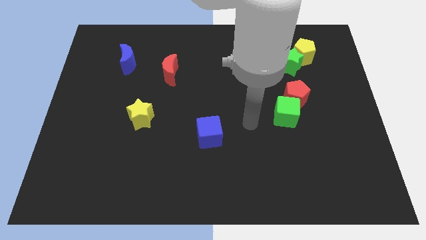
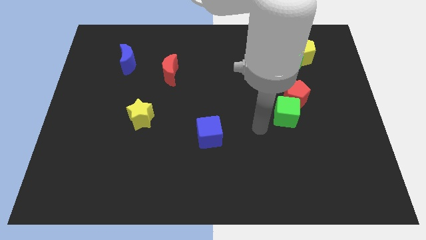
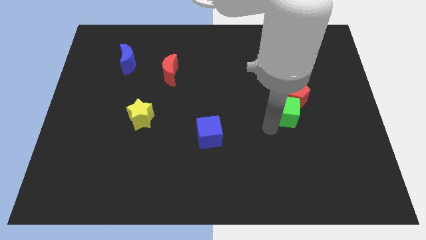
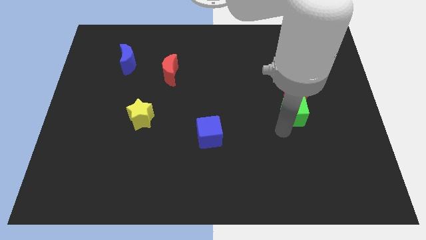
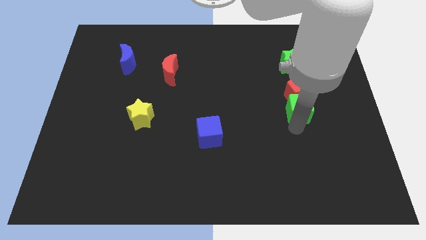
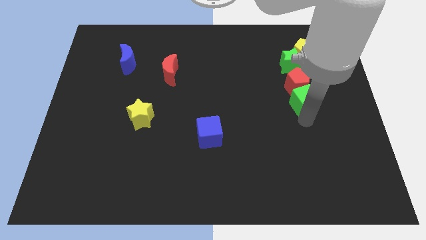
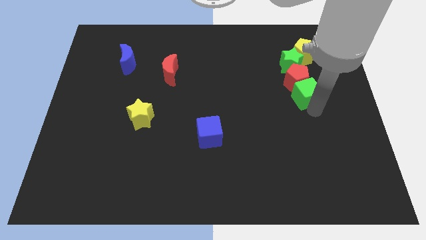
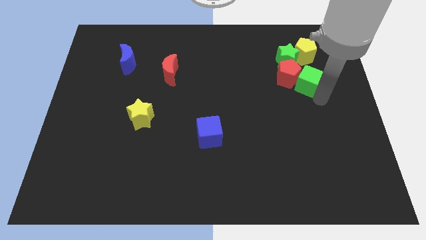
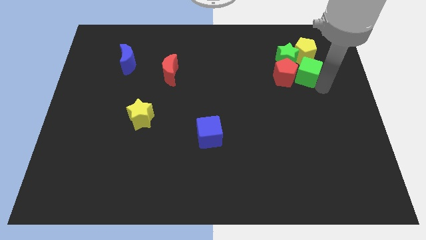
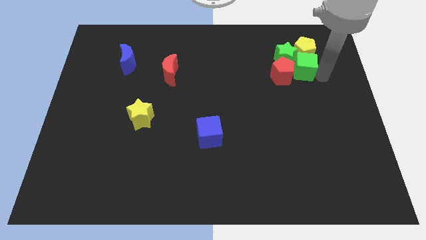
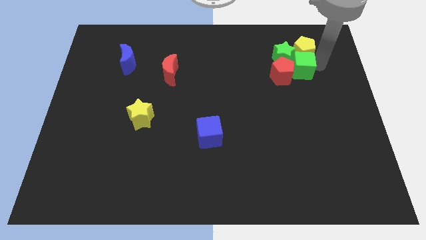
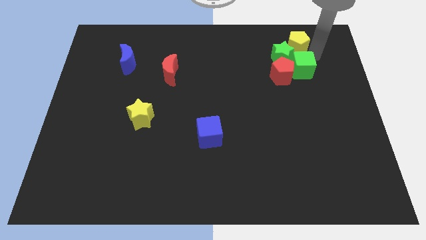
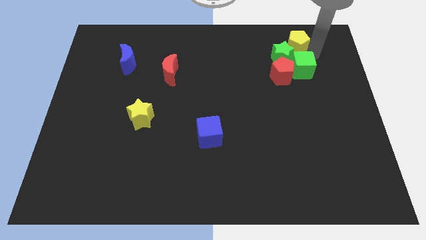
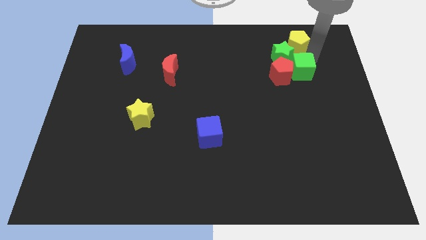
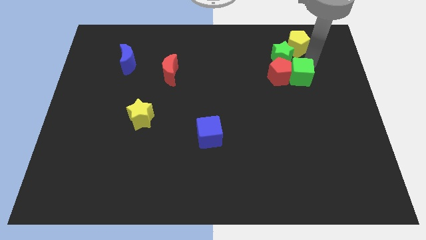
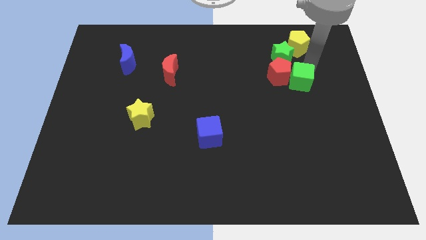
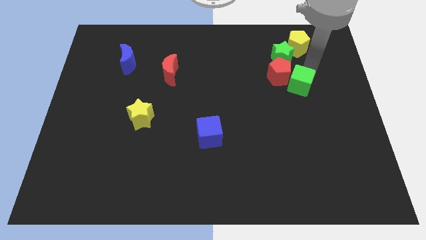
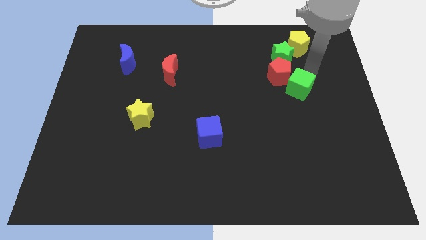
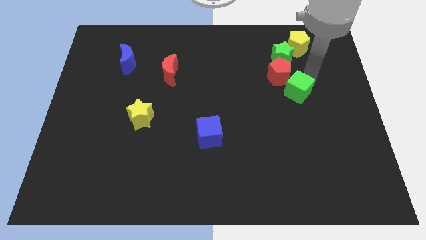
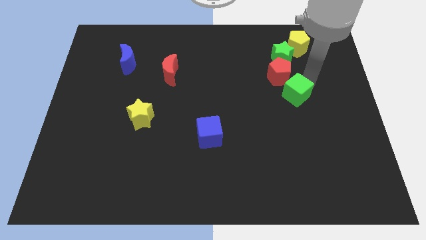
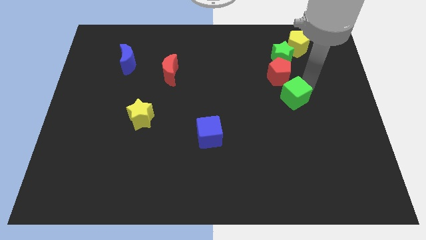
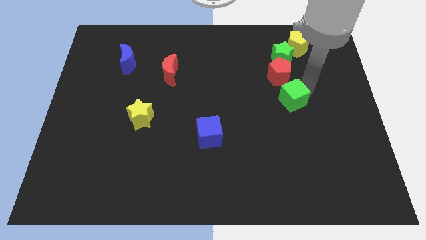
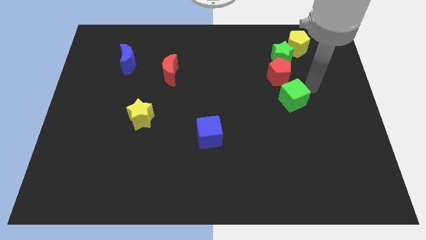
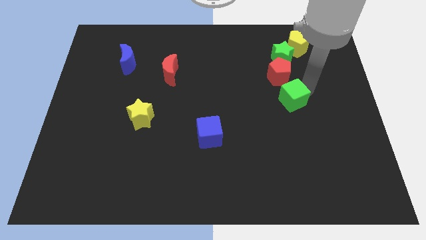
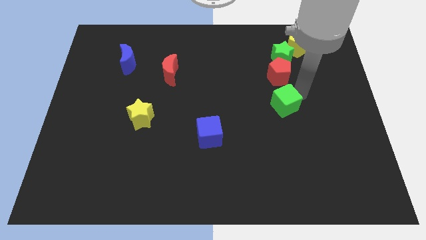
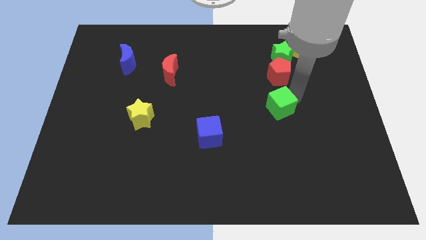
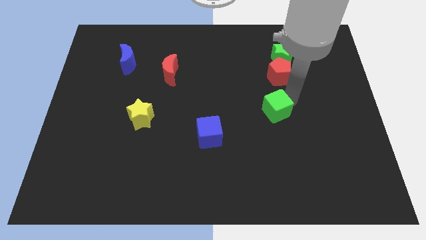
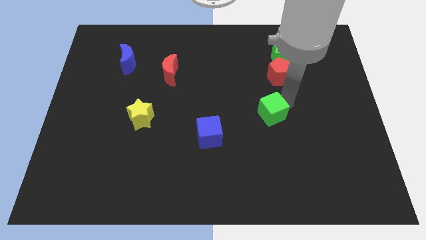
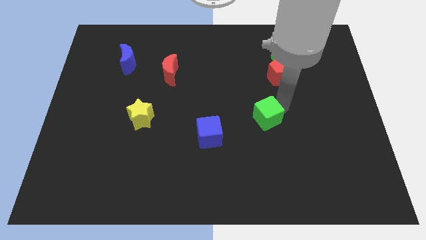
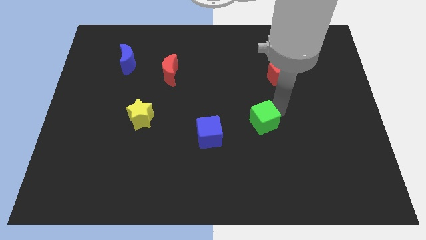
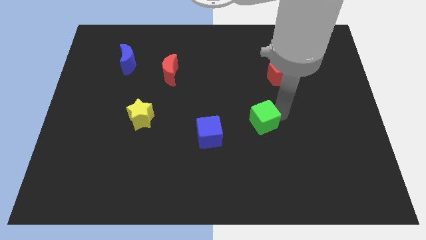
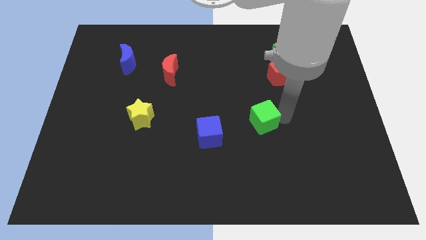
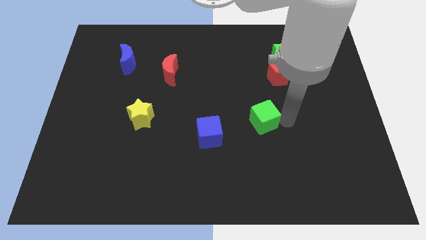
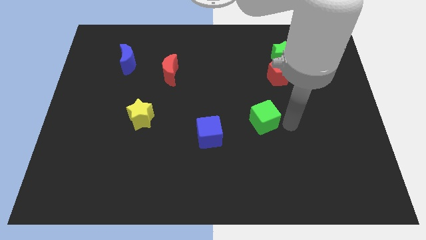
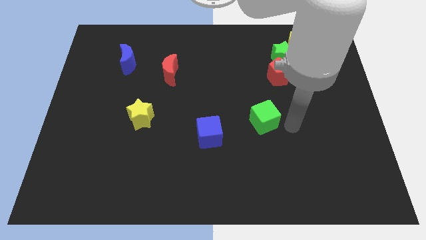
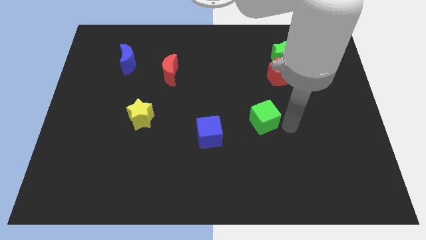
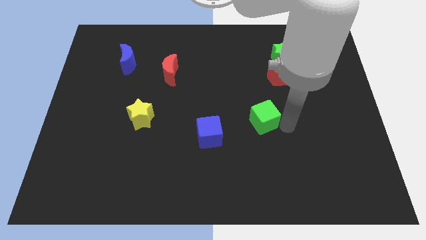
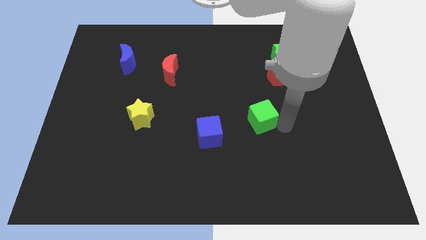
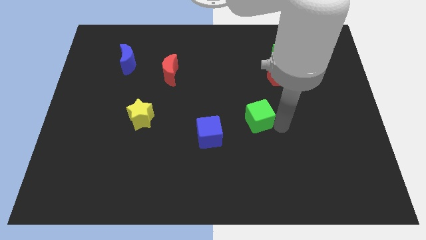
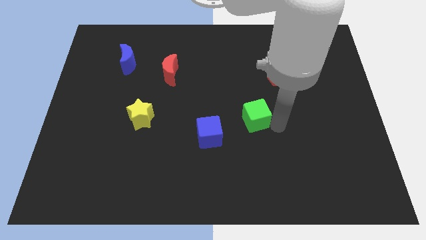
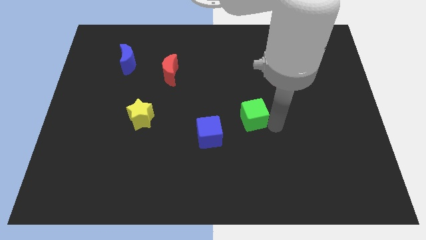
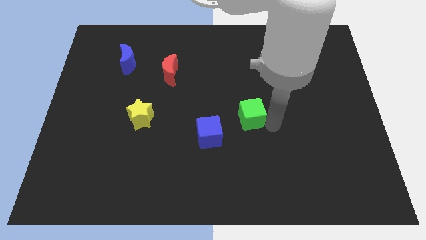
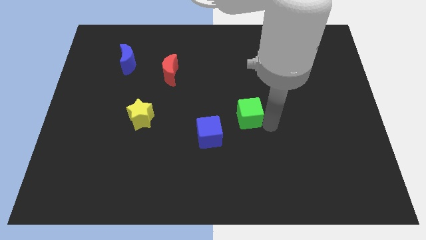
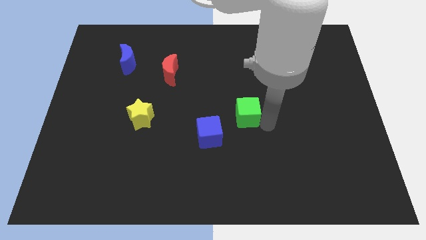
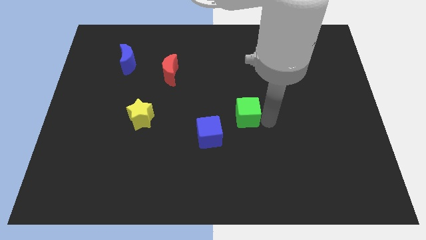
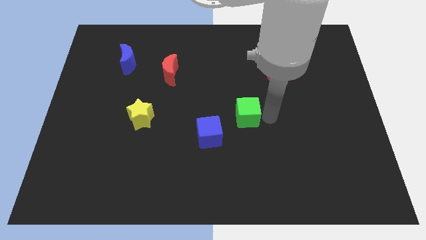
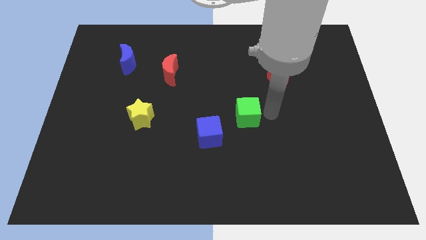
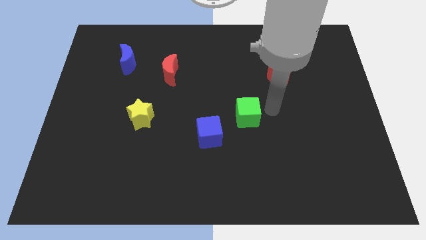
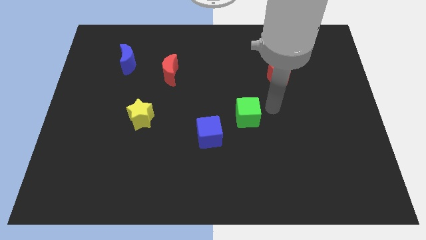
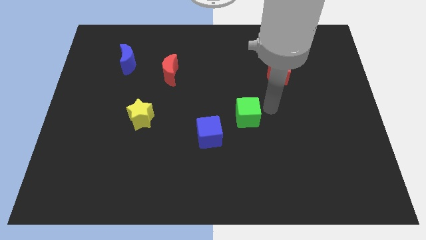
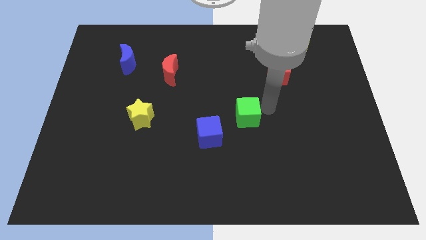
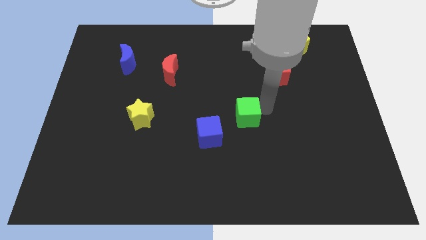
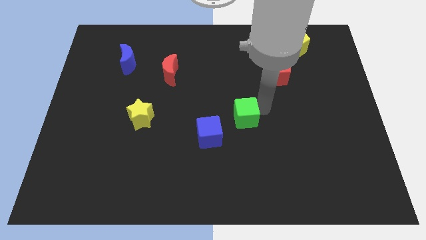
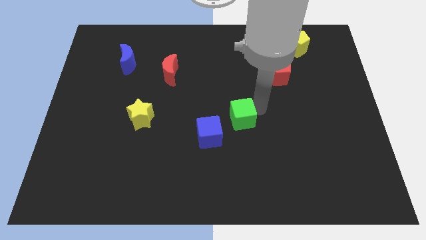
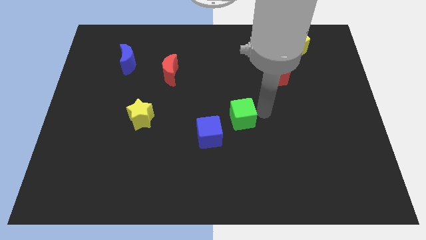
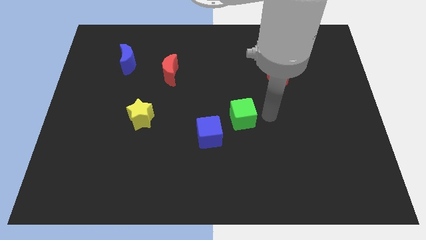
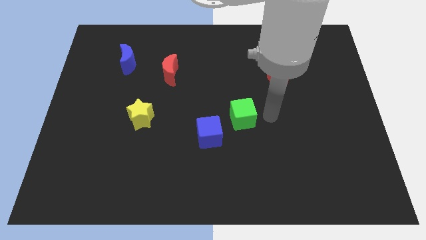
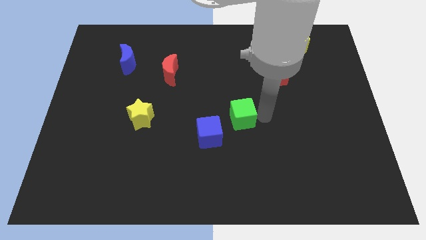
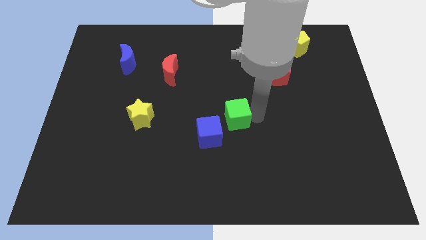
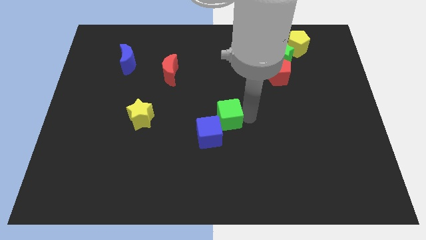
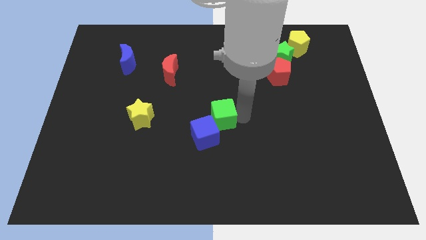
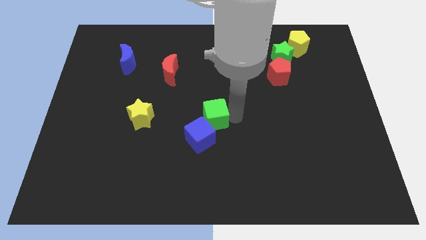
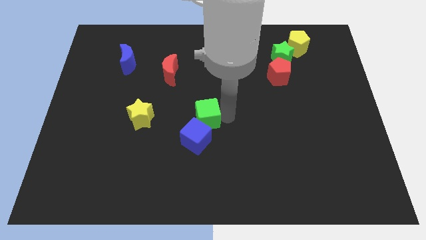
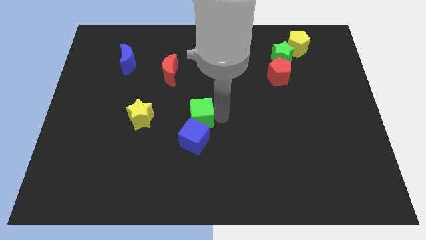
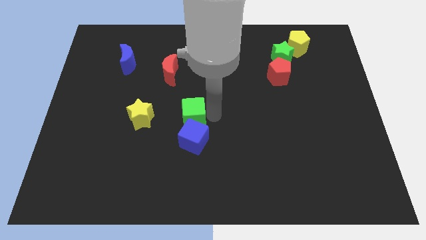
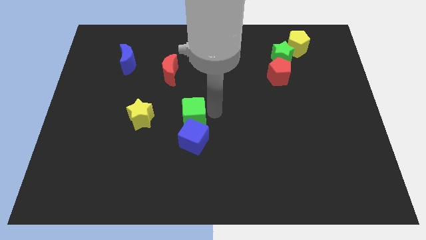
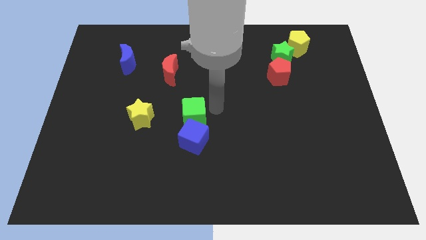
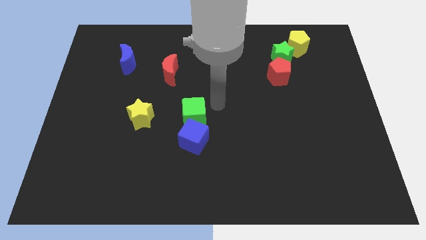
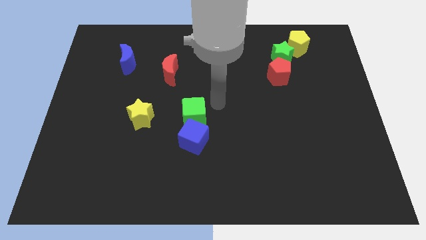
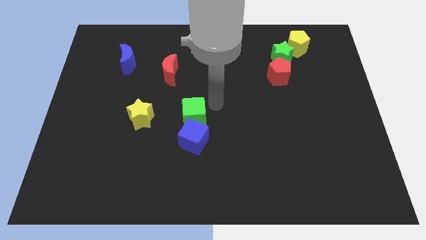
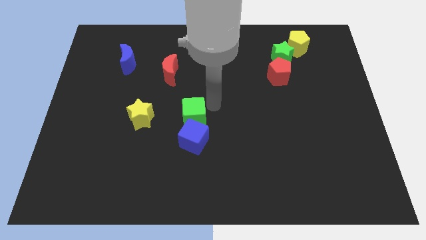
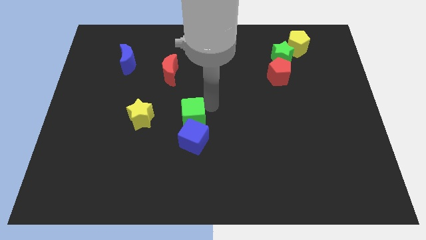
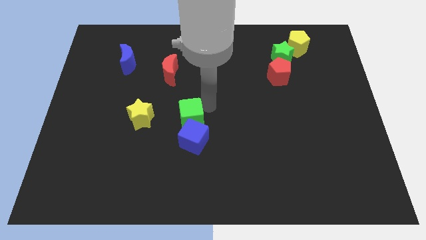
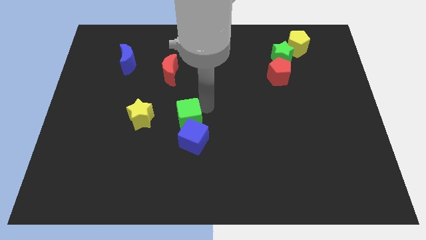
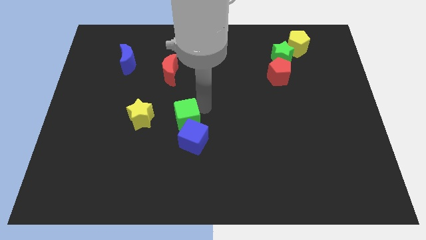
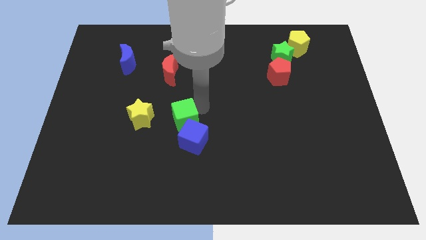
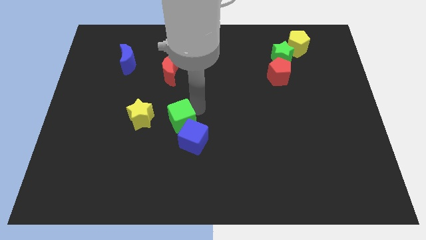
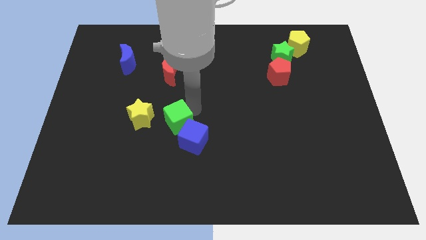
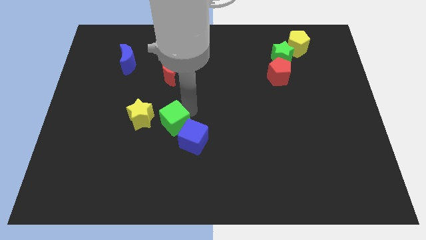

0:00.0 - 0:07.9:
slide the green cube left of the blue cube
